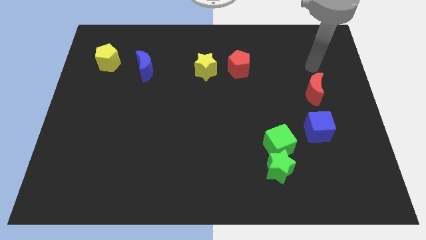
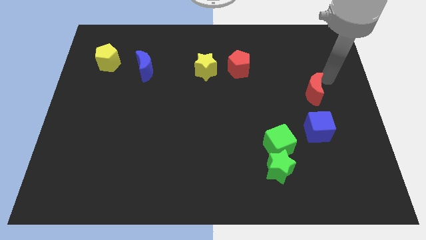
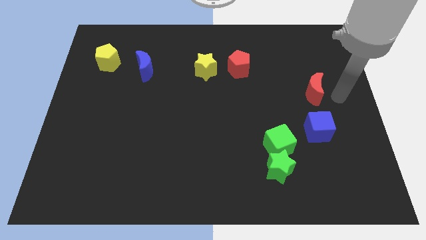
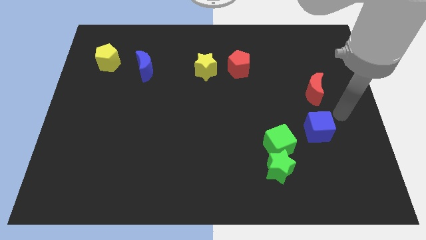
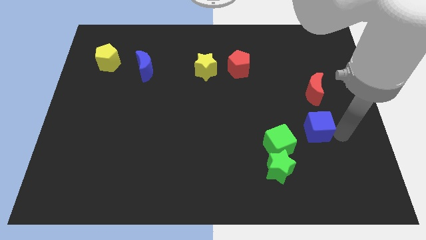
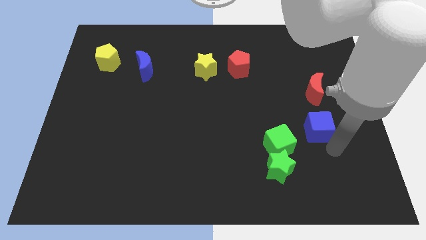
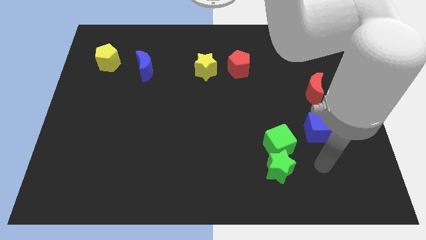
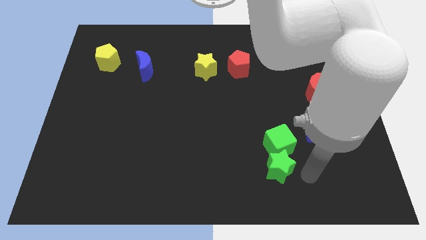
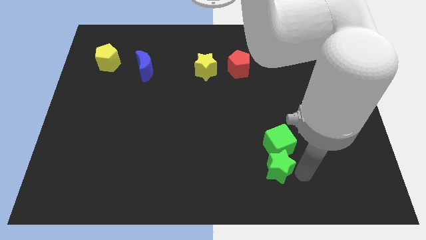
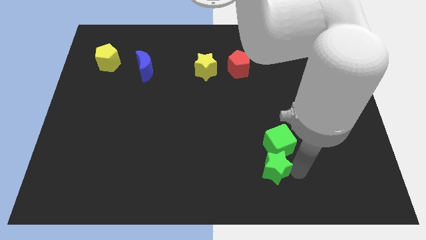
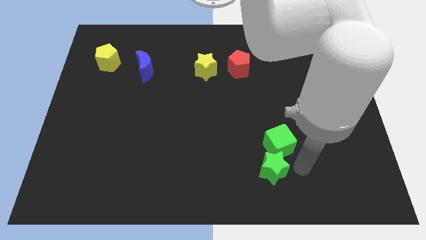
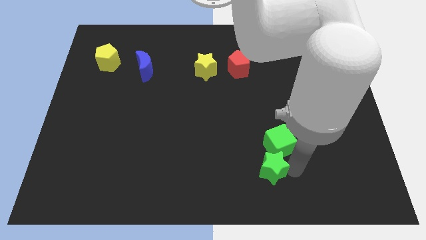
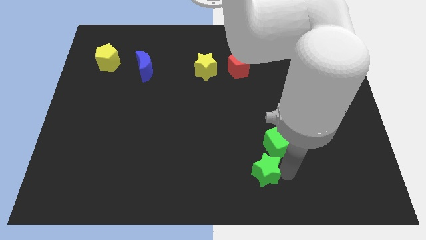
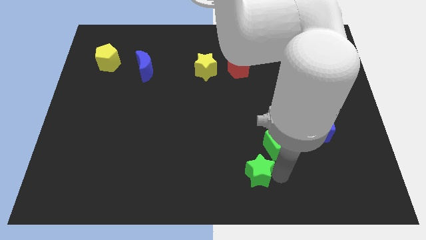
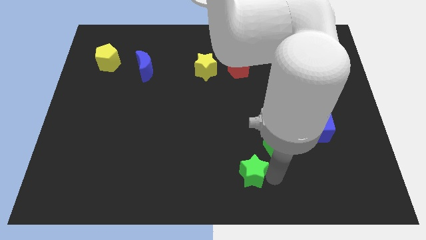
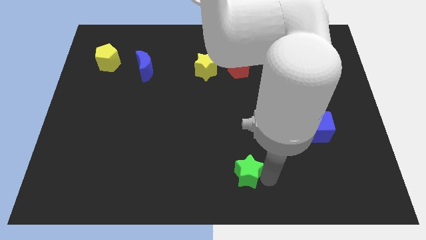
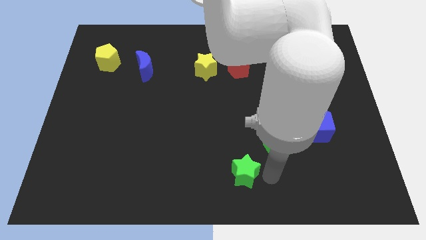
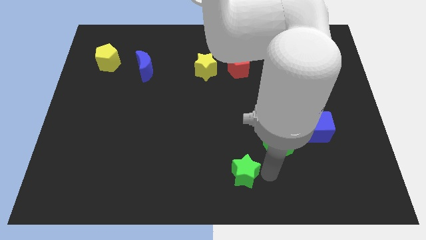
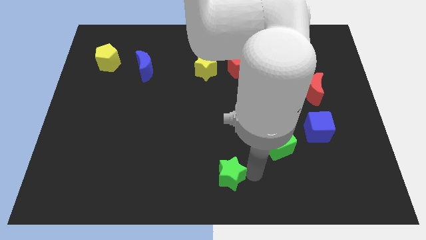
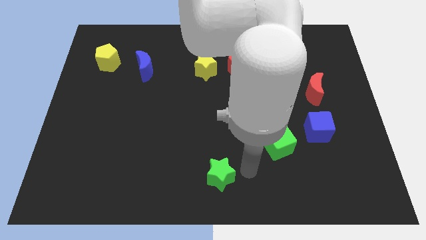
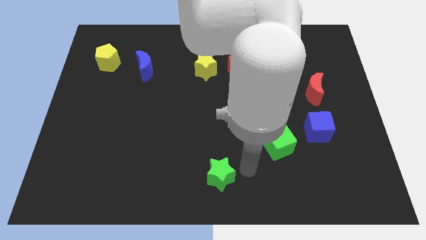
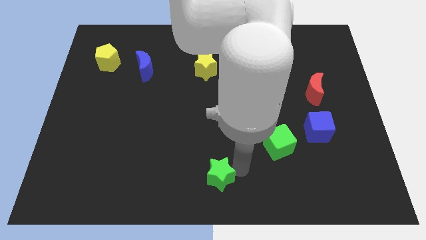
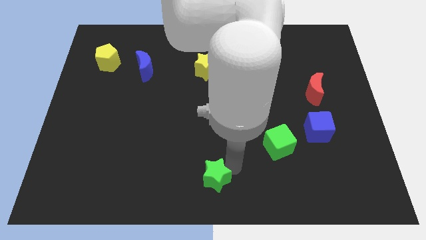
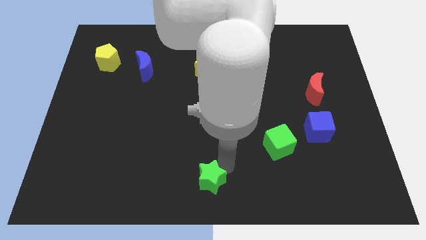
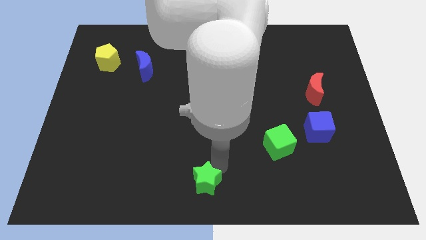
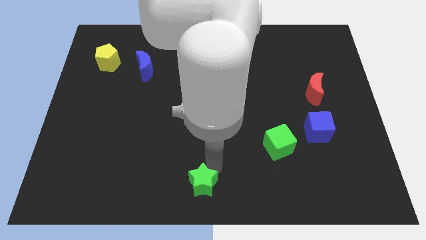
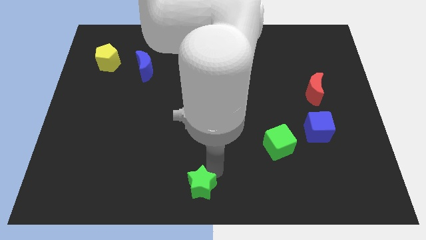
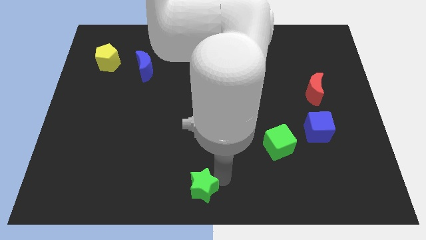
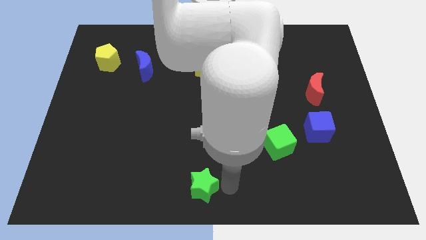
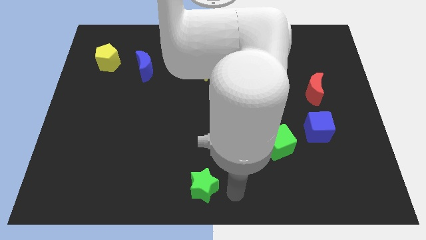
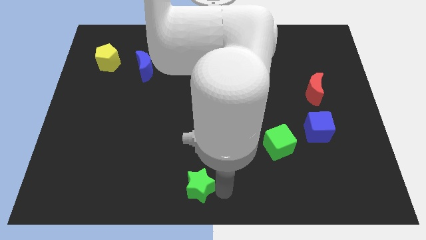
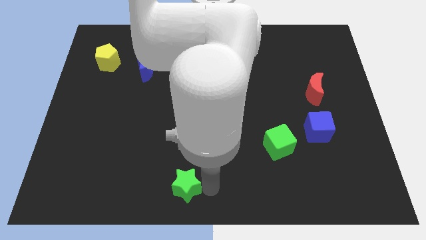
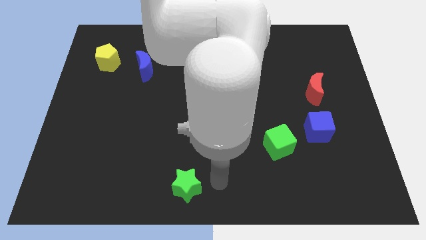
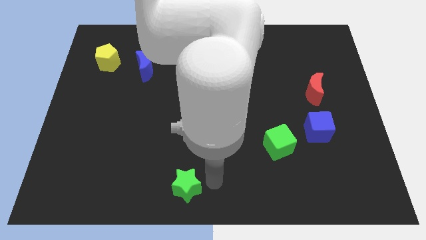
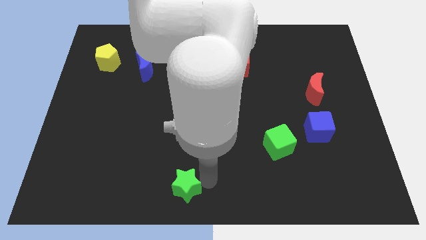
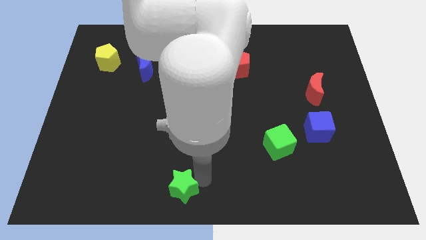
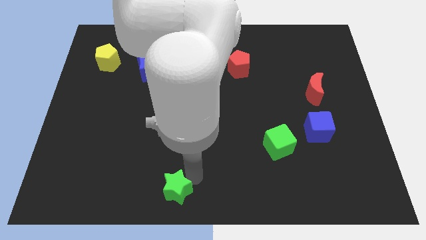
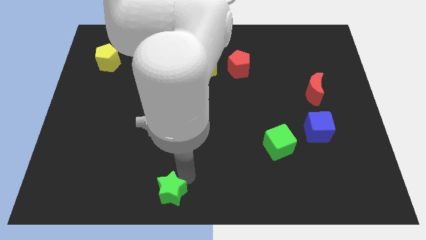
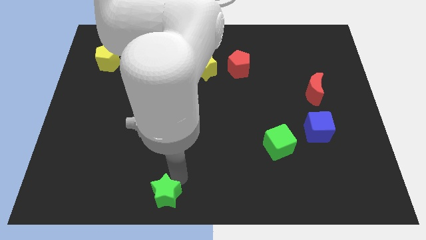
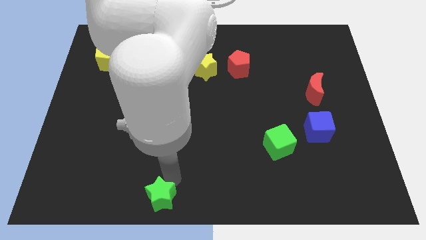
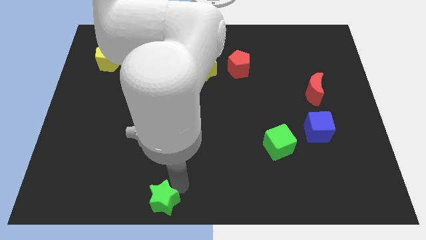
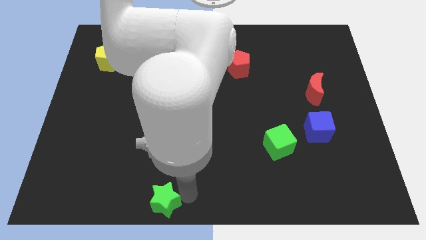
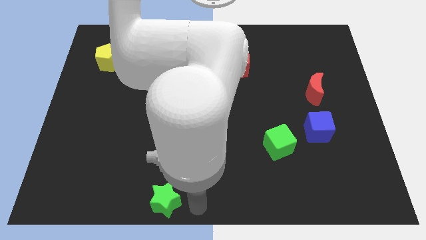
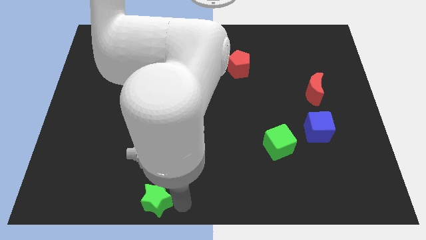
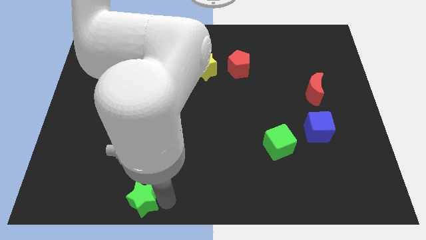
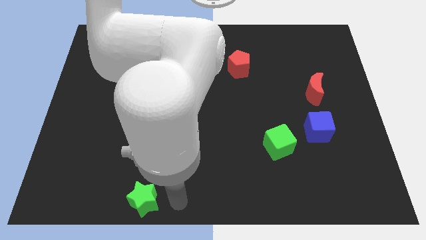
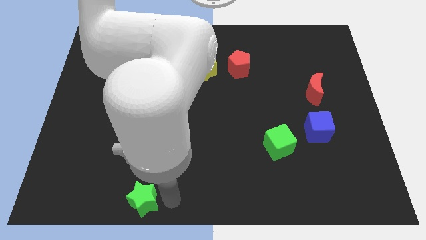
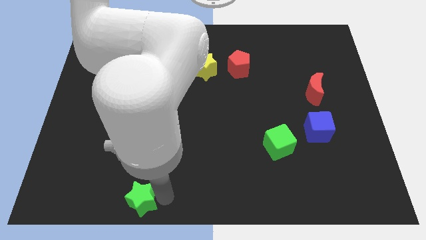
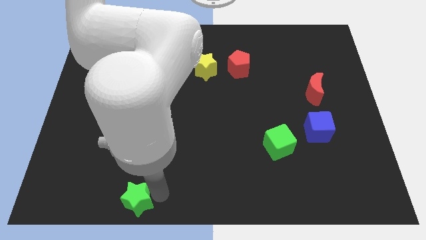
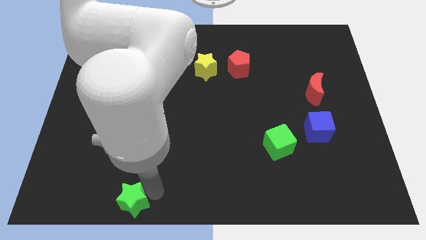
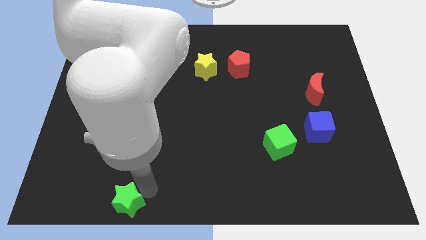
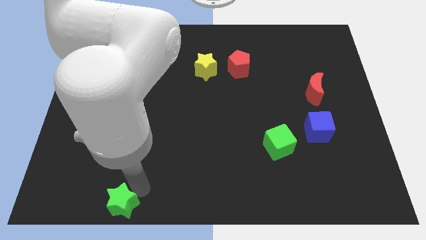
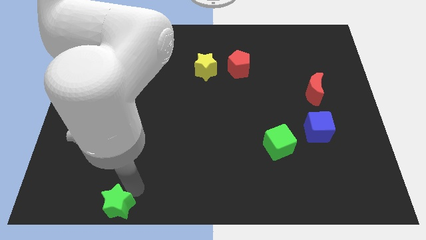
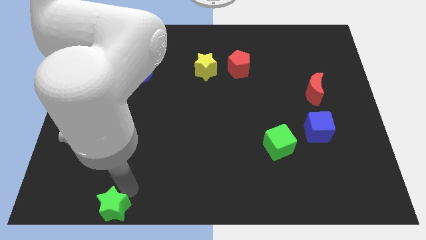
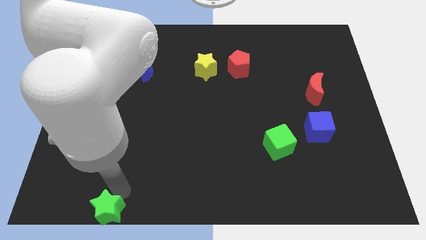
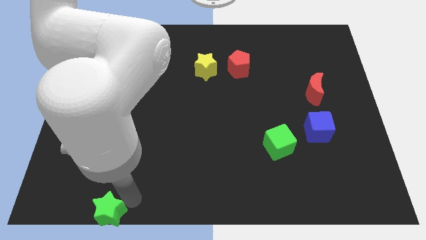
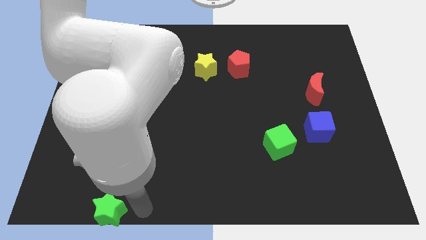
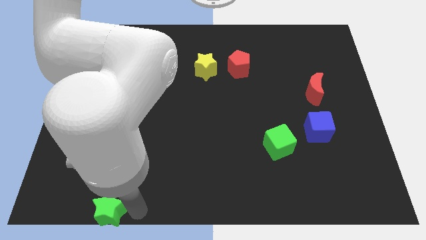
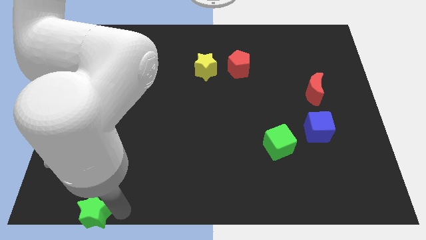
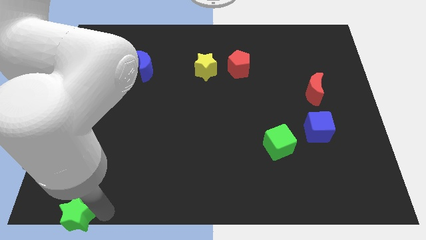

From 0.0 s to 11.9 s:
move the green star to the bottom left

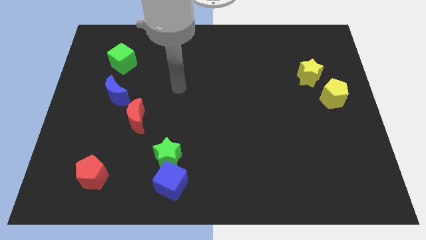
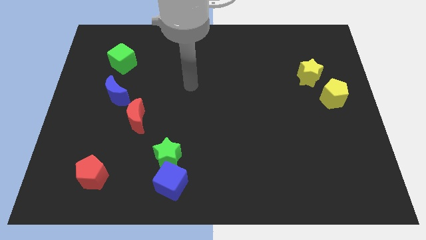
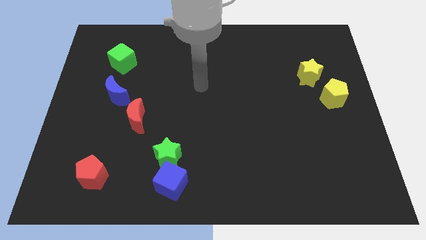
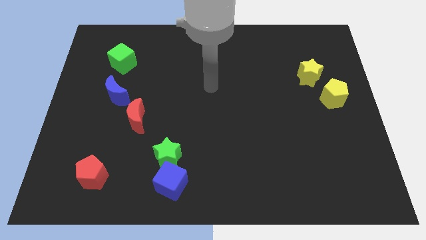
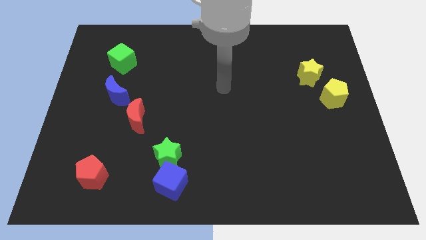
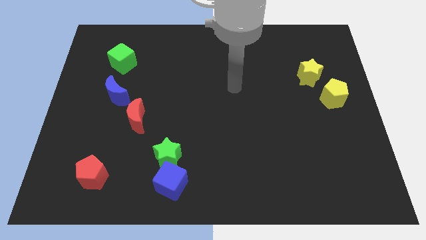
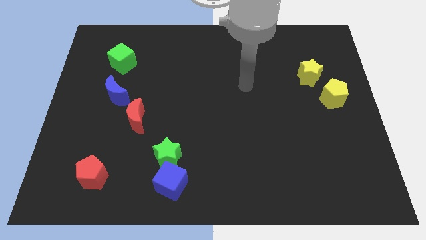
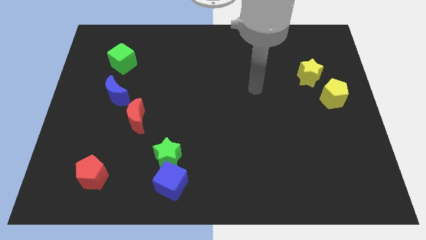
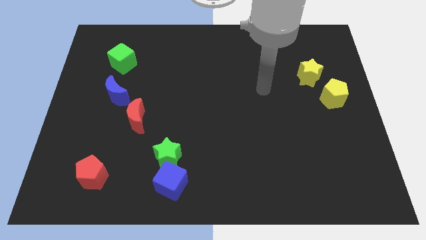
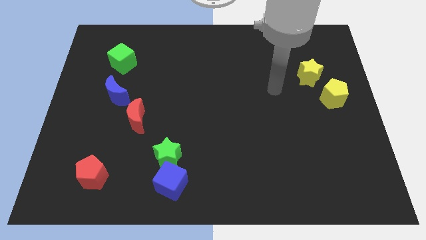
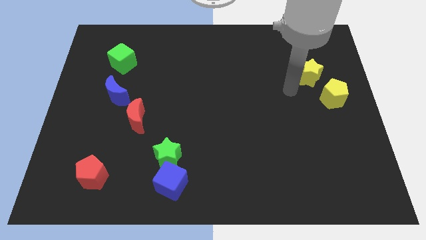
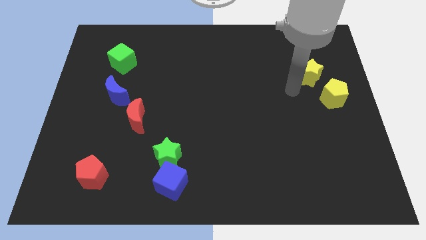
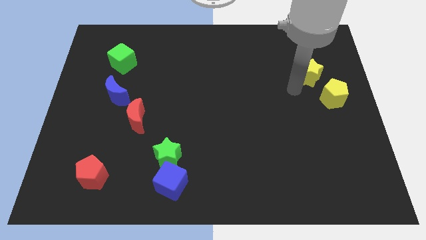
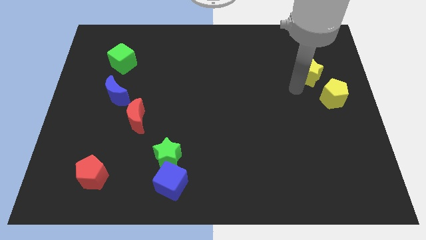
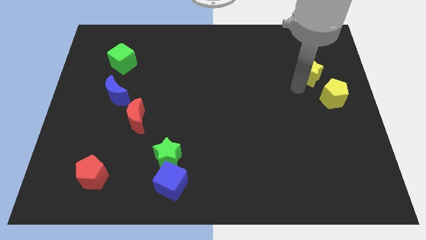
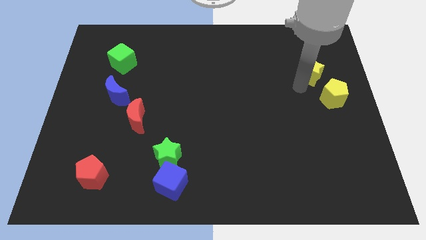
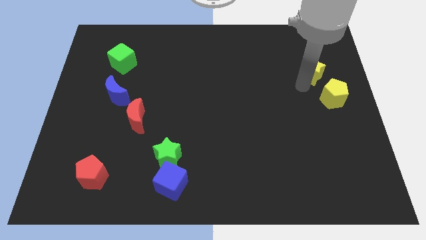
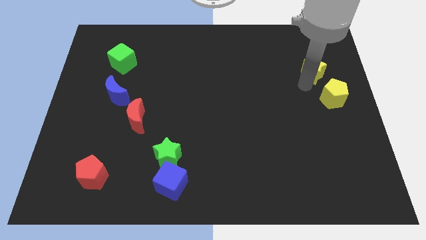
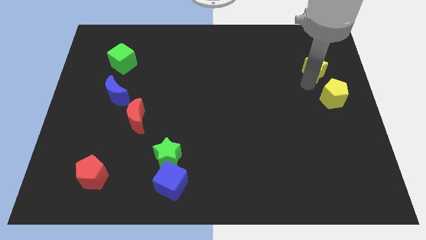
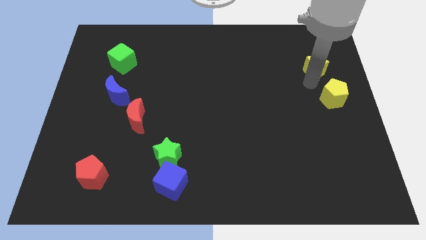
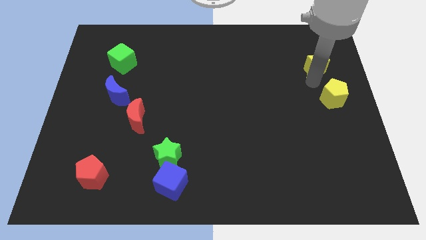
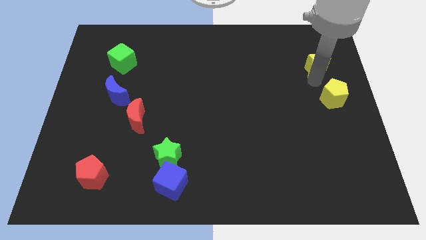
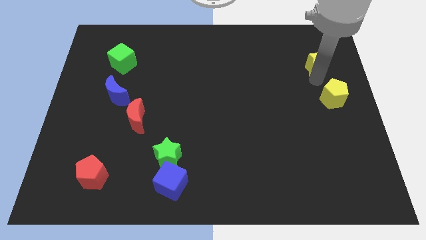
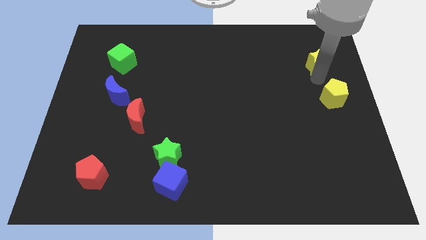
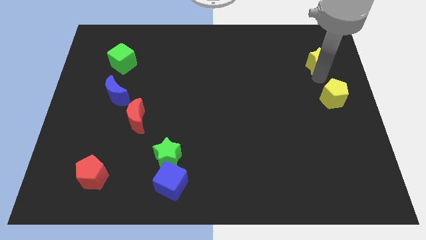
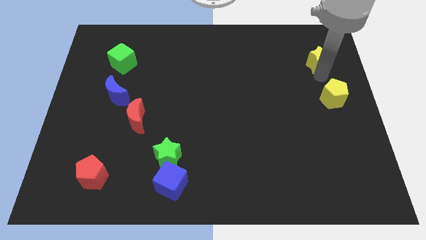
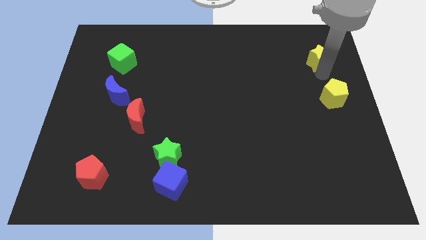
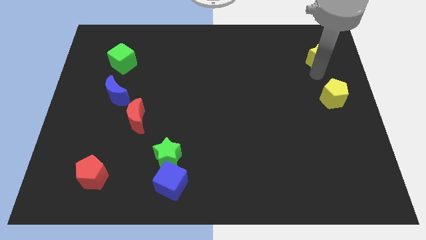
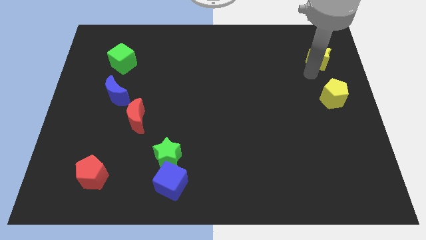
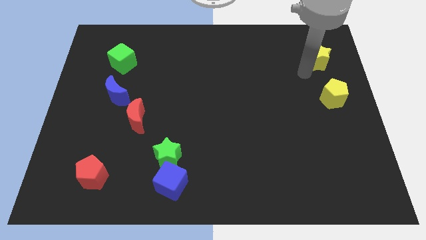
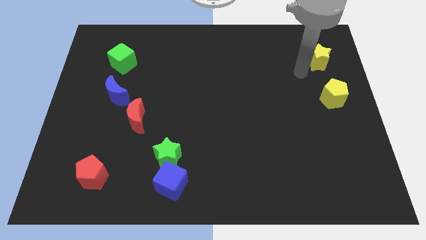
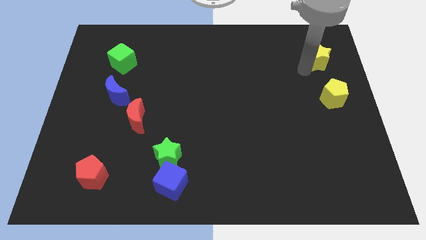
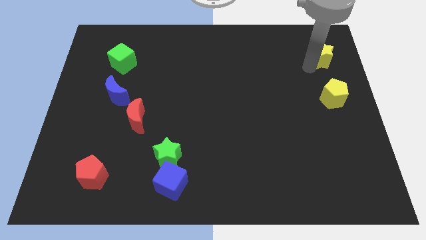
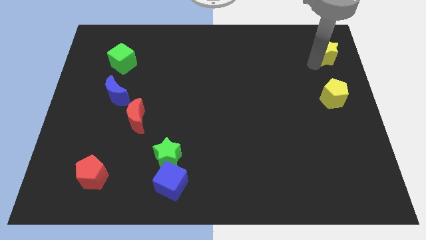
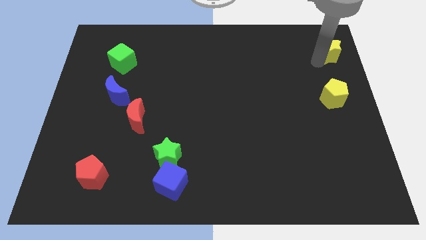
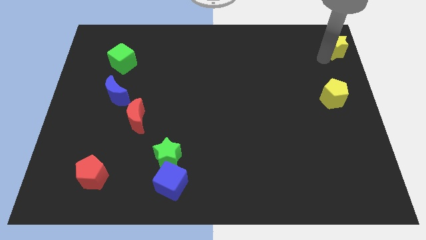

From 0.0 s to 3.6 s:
slide the yellow star to the upper right corner
